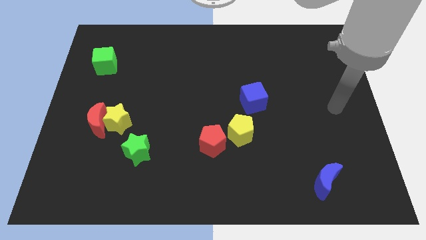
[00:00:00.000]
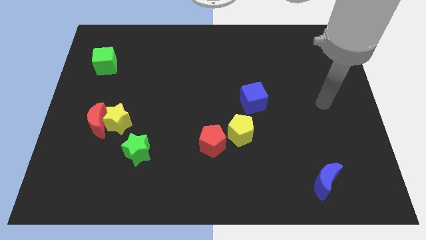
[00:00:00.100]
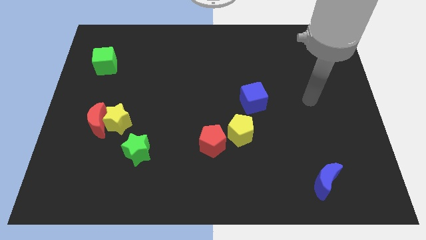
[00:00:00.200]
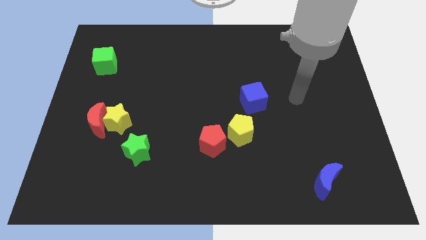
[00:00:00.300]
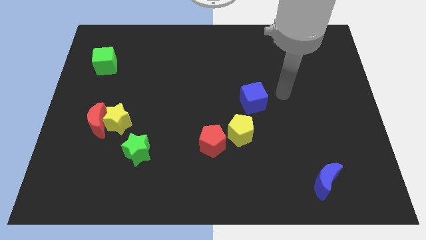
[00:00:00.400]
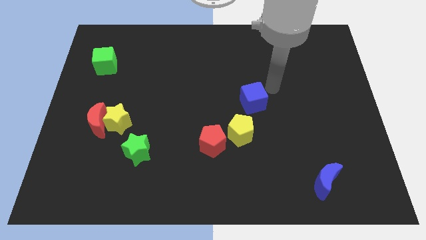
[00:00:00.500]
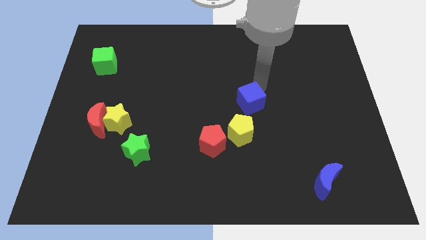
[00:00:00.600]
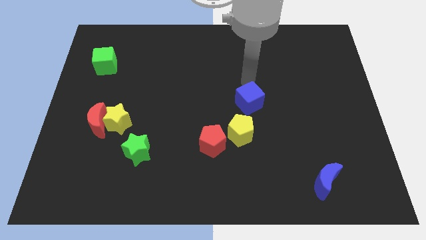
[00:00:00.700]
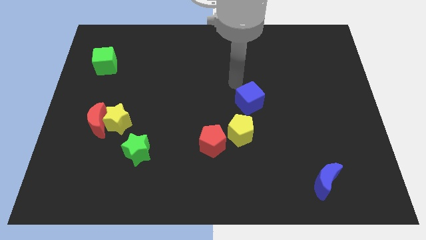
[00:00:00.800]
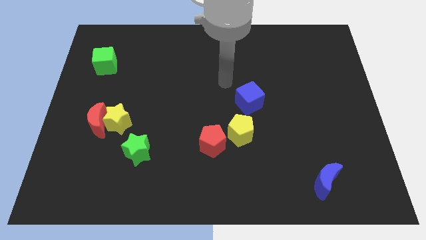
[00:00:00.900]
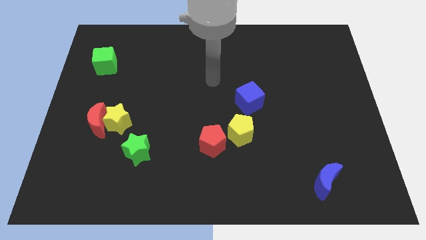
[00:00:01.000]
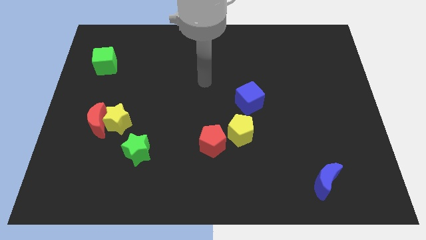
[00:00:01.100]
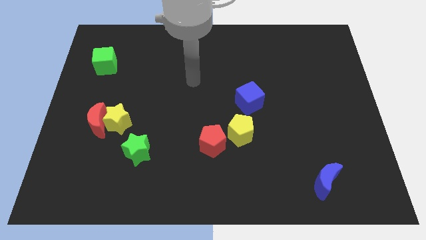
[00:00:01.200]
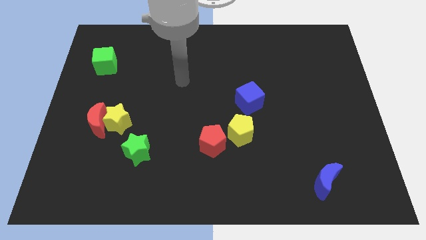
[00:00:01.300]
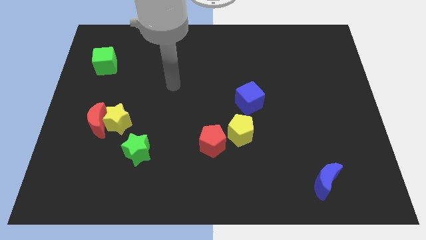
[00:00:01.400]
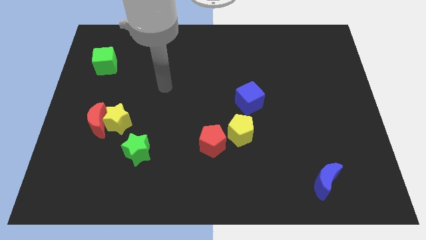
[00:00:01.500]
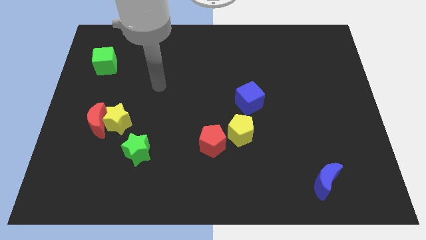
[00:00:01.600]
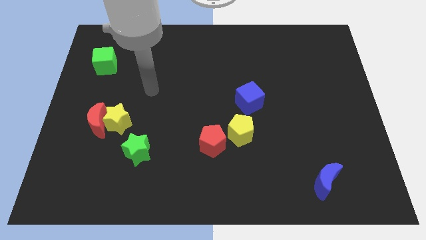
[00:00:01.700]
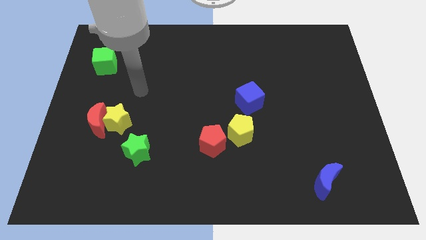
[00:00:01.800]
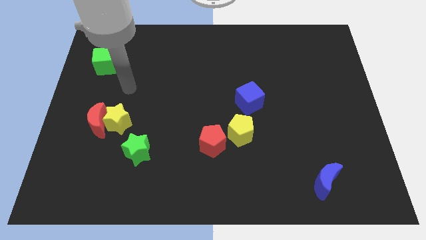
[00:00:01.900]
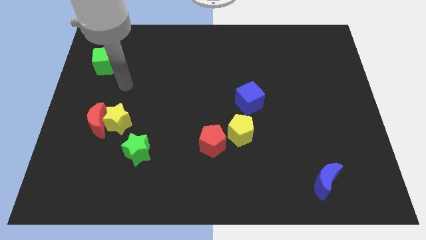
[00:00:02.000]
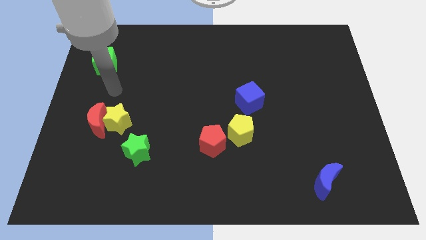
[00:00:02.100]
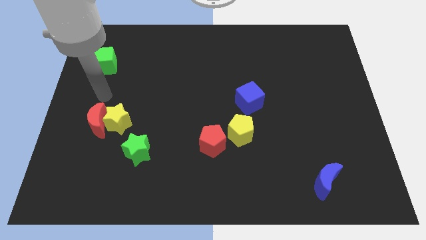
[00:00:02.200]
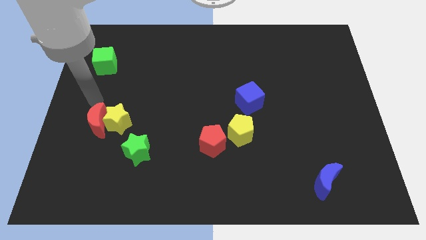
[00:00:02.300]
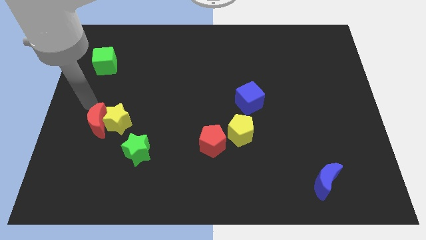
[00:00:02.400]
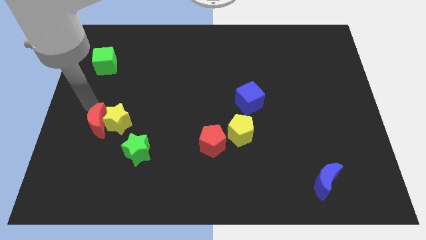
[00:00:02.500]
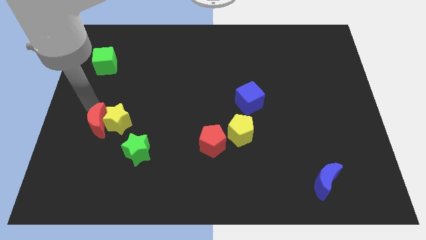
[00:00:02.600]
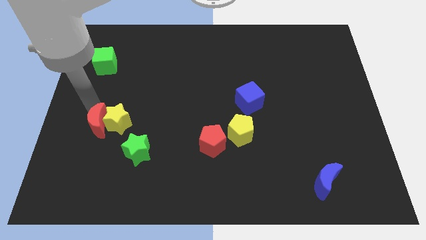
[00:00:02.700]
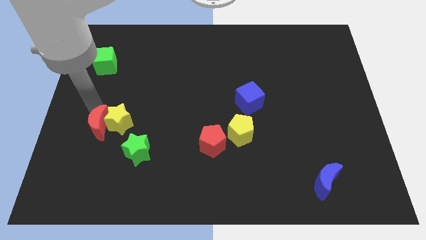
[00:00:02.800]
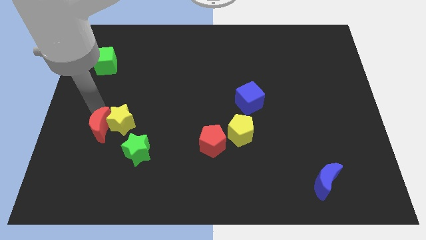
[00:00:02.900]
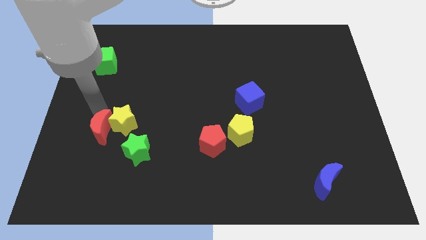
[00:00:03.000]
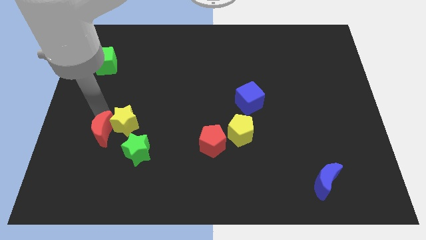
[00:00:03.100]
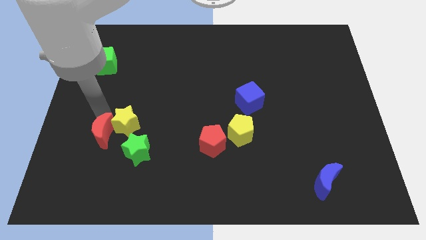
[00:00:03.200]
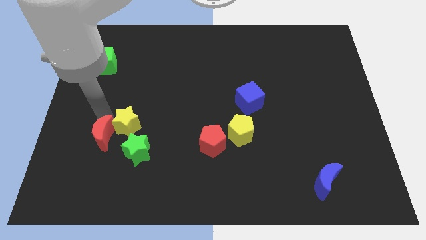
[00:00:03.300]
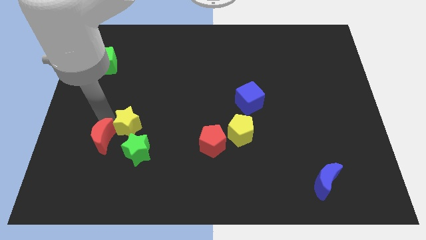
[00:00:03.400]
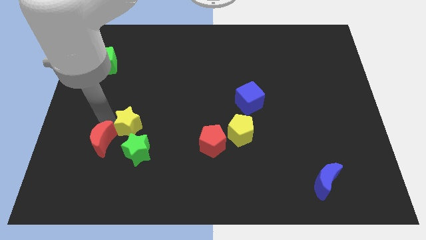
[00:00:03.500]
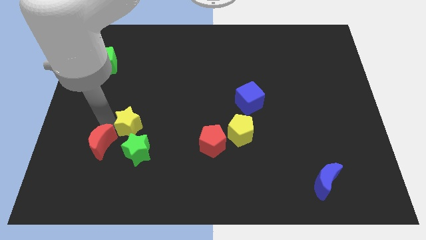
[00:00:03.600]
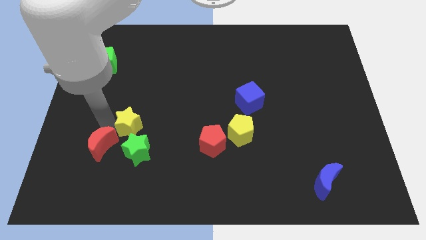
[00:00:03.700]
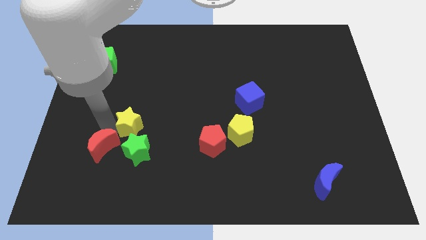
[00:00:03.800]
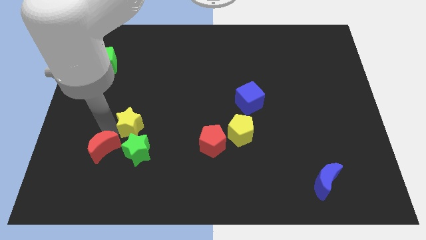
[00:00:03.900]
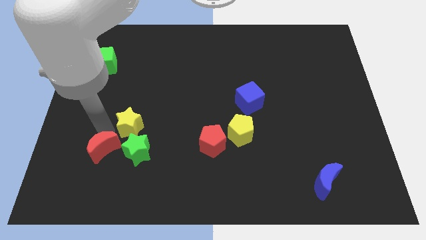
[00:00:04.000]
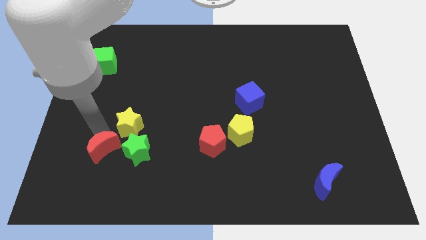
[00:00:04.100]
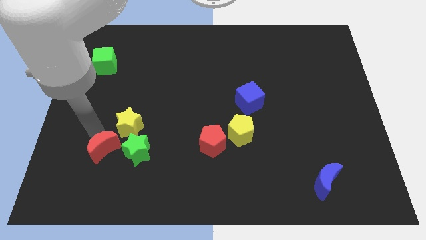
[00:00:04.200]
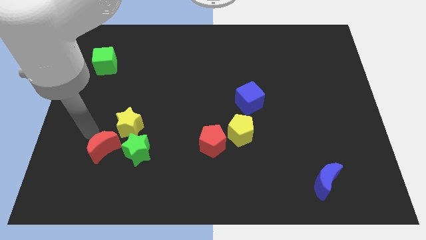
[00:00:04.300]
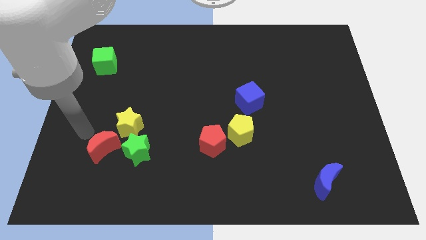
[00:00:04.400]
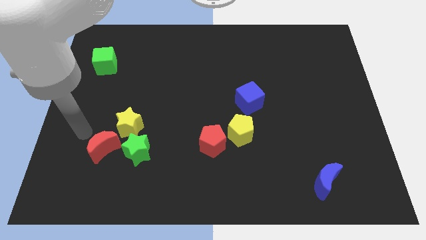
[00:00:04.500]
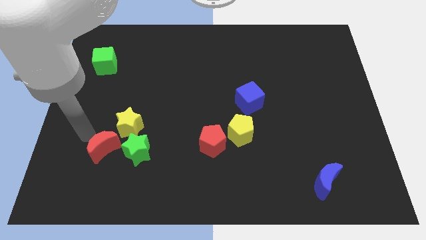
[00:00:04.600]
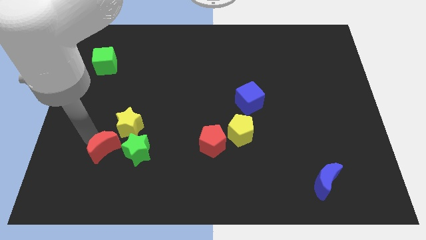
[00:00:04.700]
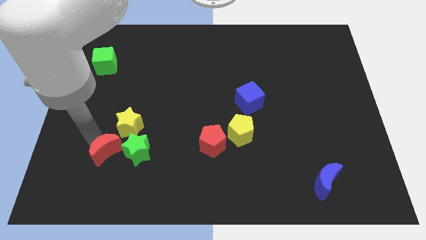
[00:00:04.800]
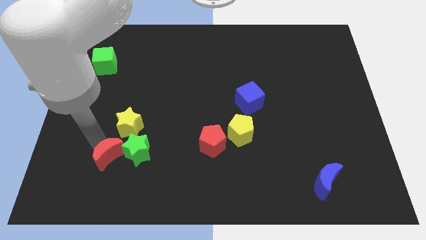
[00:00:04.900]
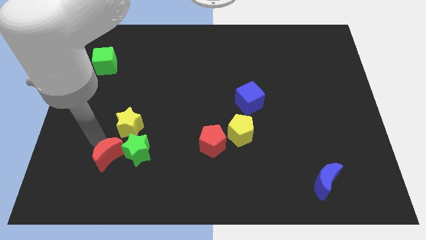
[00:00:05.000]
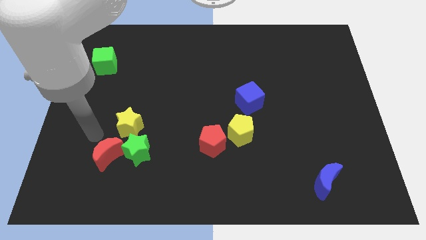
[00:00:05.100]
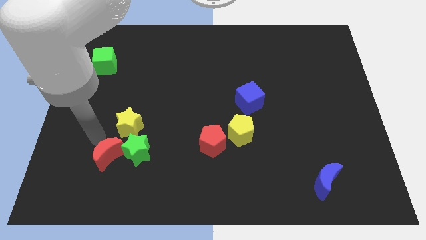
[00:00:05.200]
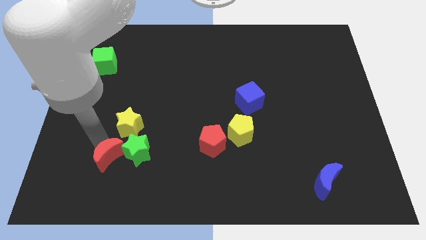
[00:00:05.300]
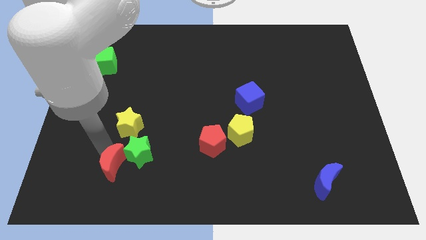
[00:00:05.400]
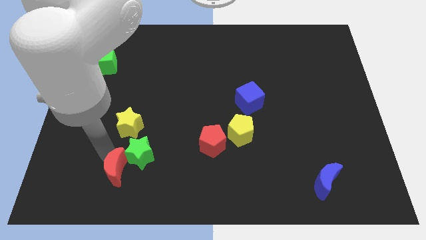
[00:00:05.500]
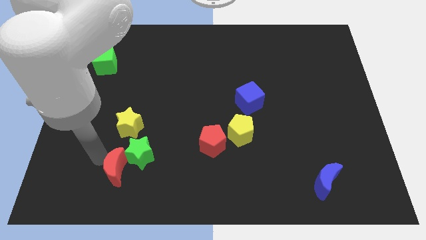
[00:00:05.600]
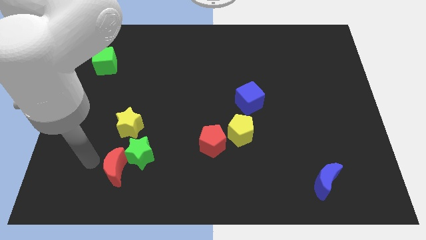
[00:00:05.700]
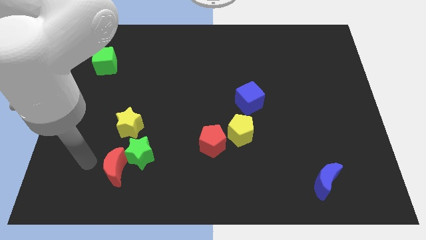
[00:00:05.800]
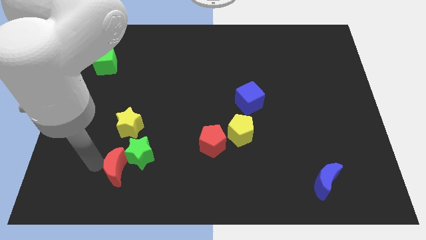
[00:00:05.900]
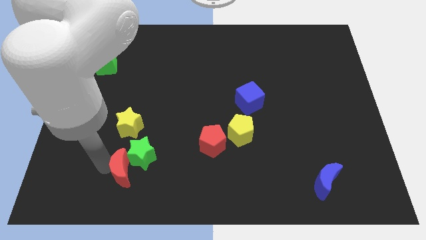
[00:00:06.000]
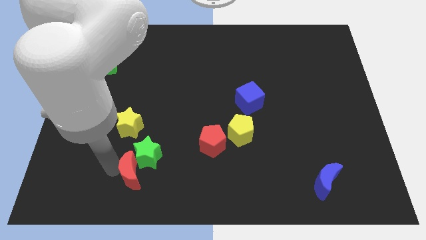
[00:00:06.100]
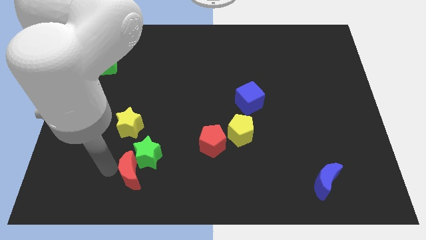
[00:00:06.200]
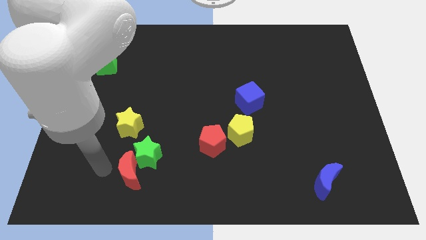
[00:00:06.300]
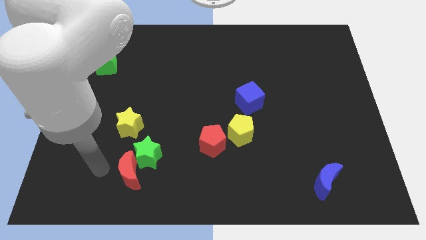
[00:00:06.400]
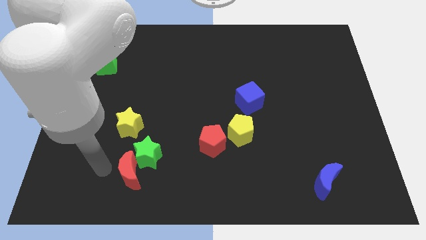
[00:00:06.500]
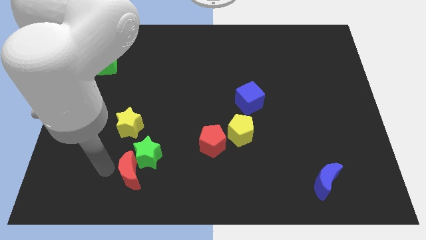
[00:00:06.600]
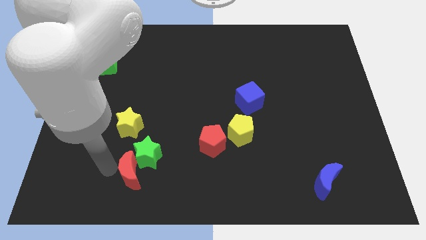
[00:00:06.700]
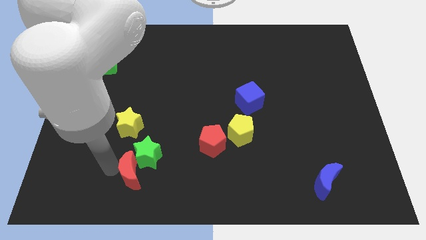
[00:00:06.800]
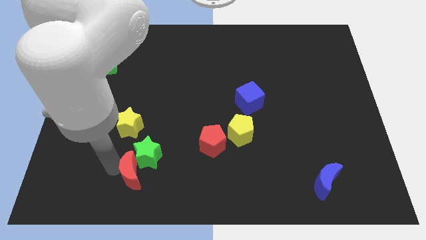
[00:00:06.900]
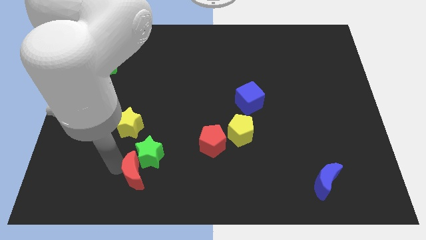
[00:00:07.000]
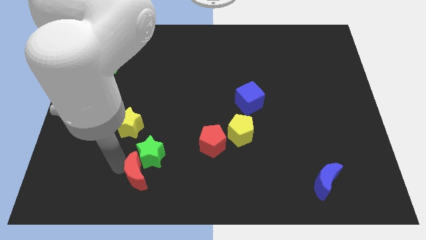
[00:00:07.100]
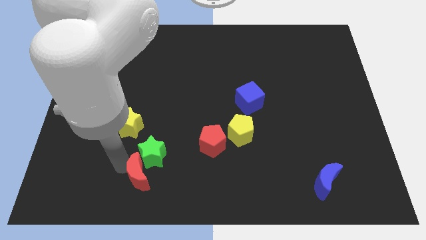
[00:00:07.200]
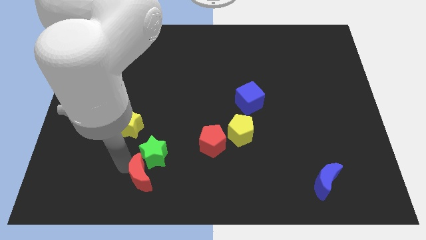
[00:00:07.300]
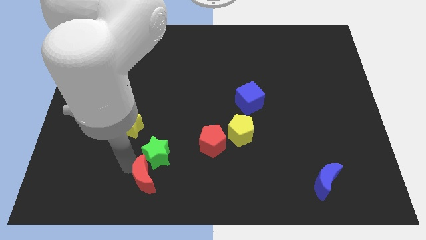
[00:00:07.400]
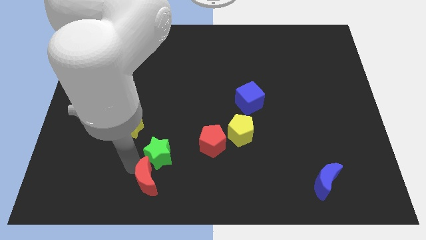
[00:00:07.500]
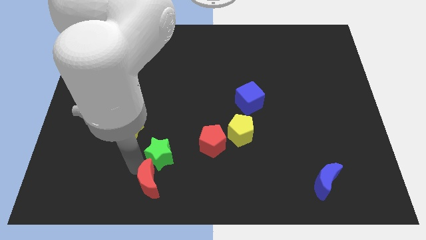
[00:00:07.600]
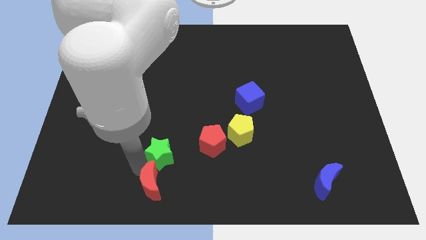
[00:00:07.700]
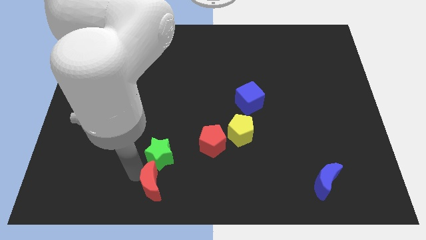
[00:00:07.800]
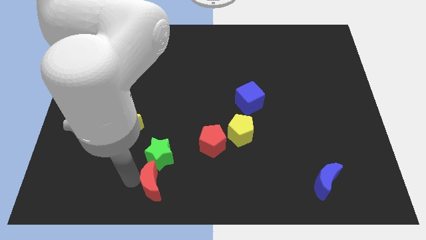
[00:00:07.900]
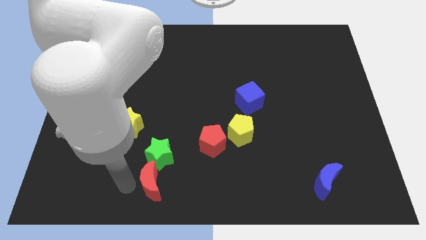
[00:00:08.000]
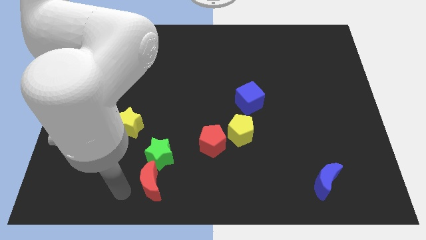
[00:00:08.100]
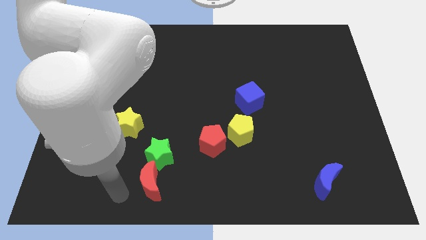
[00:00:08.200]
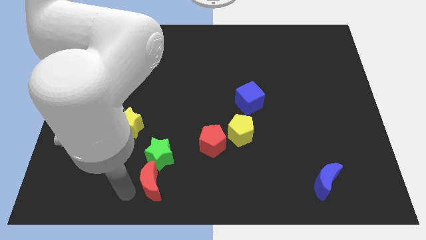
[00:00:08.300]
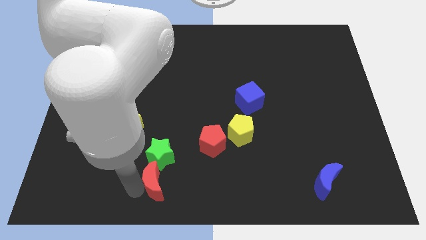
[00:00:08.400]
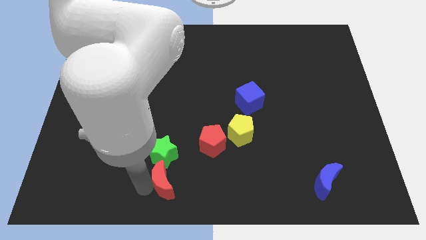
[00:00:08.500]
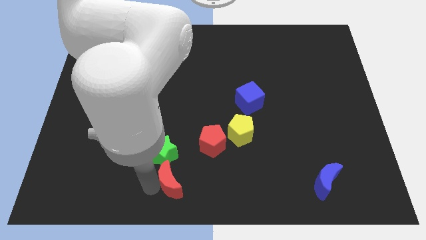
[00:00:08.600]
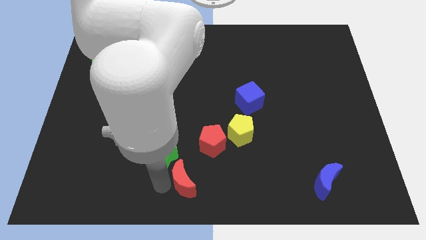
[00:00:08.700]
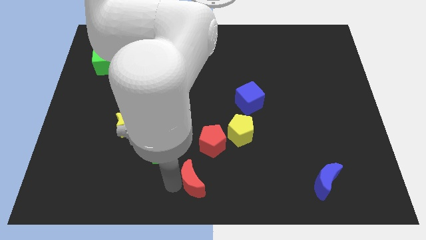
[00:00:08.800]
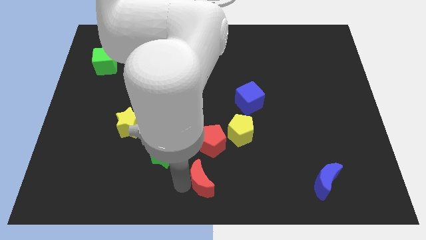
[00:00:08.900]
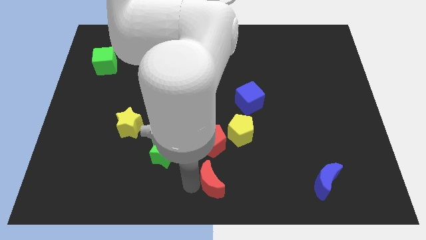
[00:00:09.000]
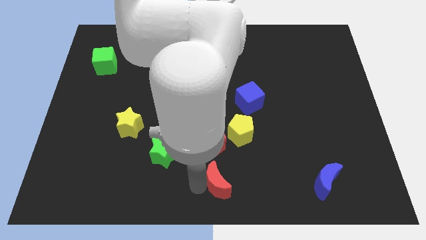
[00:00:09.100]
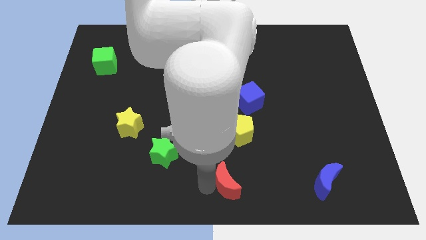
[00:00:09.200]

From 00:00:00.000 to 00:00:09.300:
slide the red moon to the bottom side of the yellow pentagon
